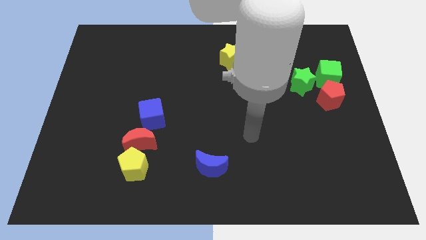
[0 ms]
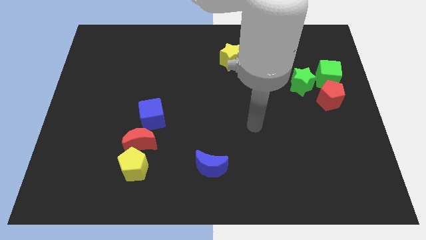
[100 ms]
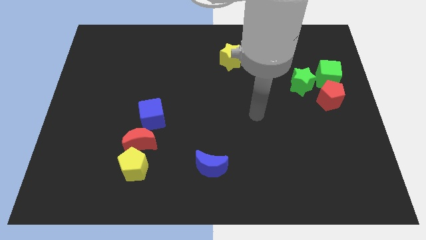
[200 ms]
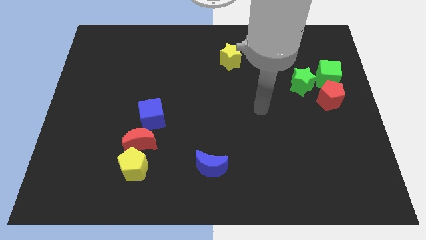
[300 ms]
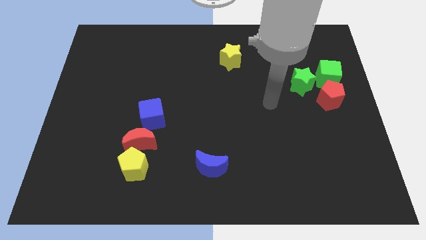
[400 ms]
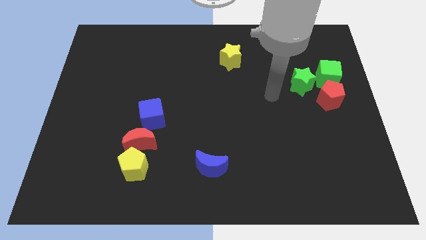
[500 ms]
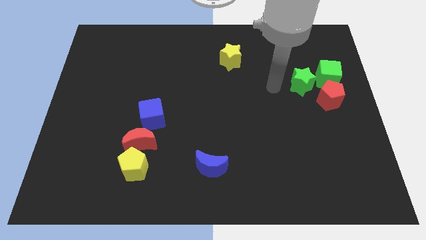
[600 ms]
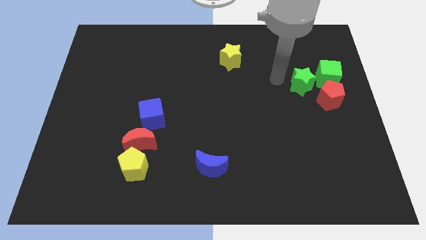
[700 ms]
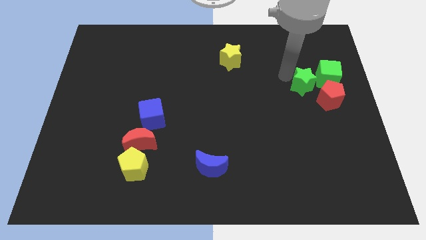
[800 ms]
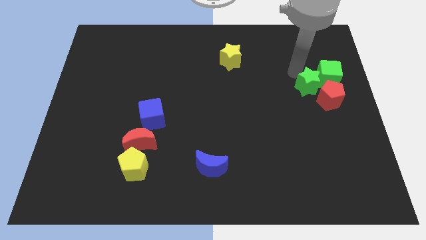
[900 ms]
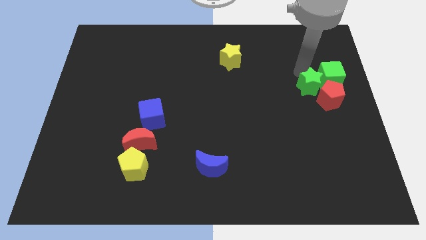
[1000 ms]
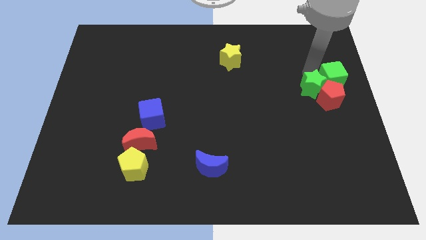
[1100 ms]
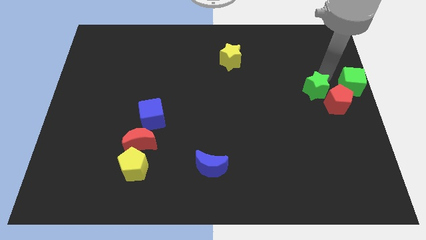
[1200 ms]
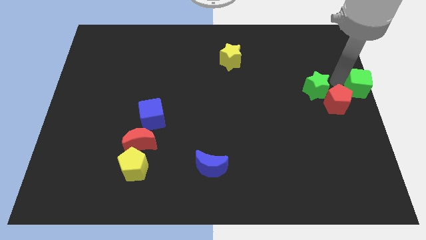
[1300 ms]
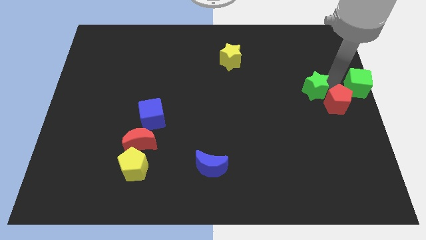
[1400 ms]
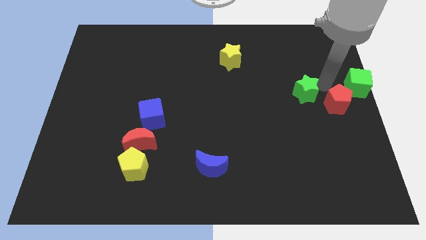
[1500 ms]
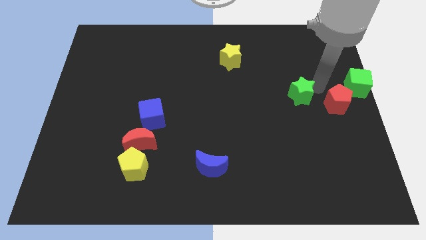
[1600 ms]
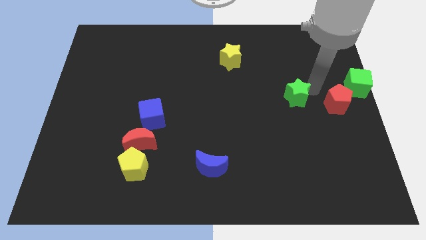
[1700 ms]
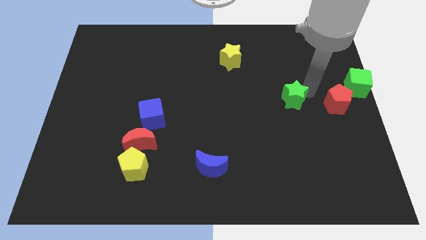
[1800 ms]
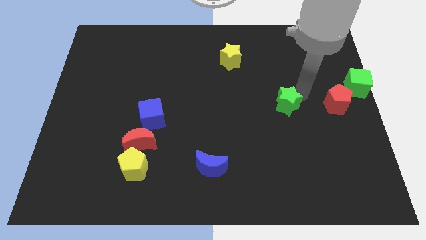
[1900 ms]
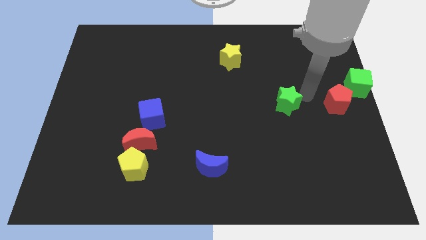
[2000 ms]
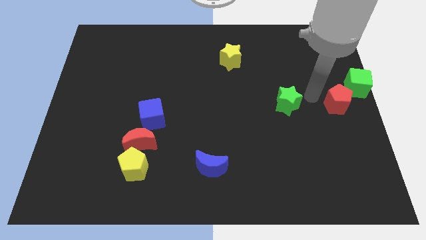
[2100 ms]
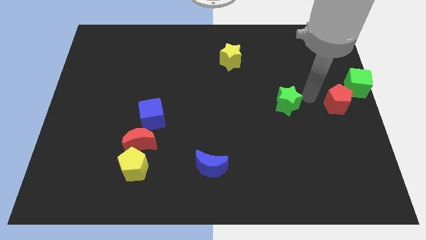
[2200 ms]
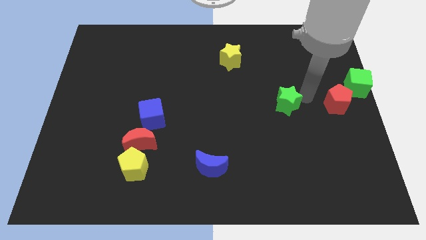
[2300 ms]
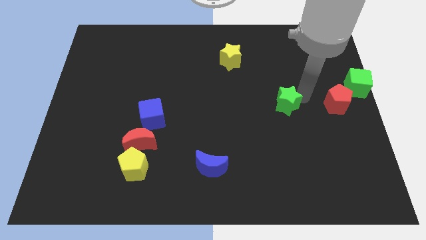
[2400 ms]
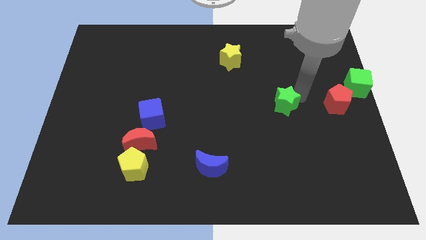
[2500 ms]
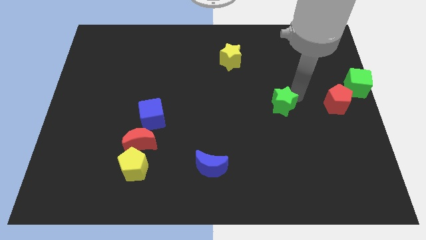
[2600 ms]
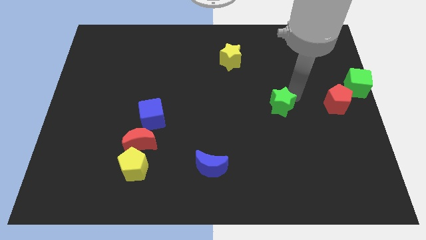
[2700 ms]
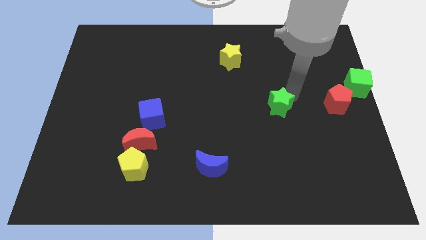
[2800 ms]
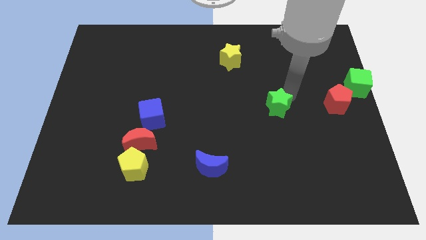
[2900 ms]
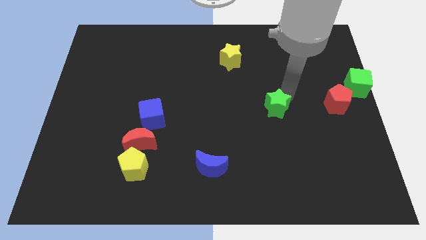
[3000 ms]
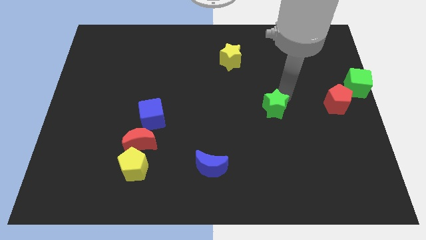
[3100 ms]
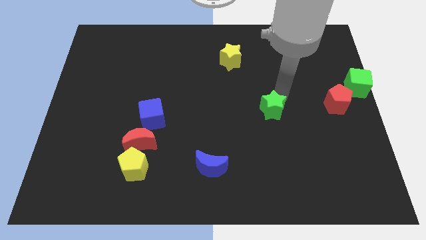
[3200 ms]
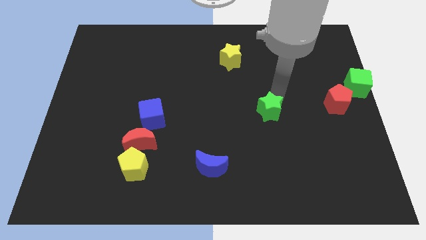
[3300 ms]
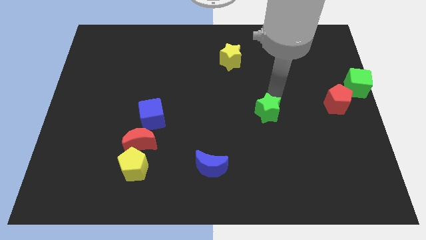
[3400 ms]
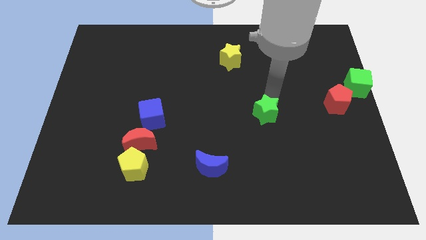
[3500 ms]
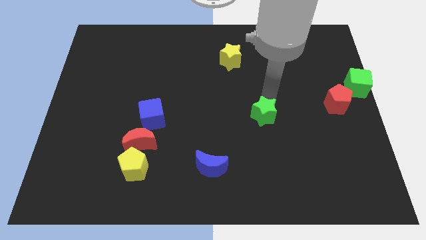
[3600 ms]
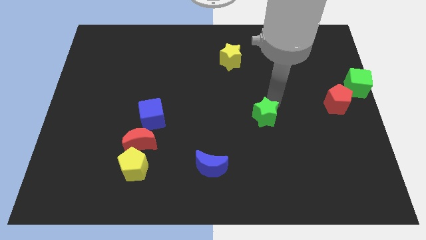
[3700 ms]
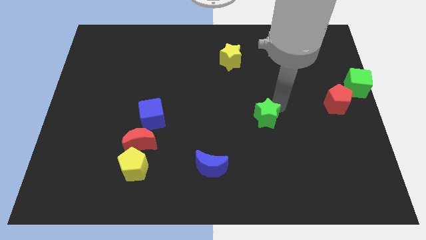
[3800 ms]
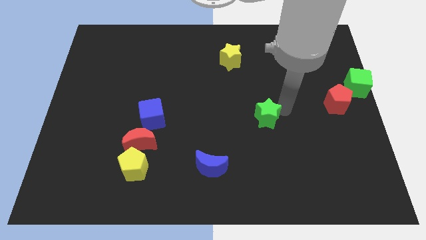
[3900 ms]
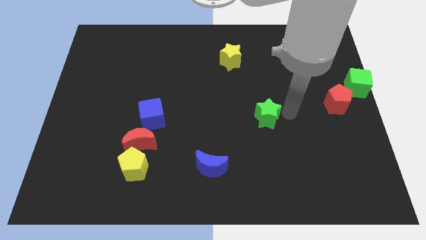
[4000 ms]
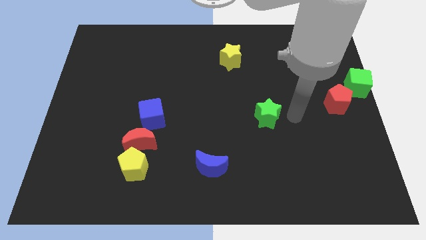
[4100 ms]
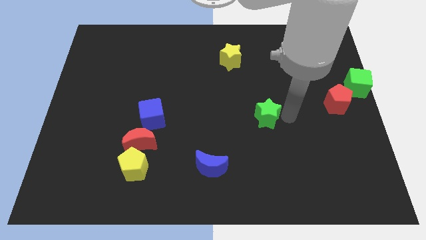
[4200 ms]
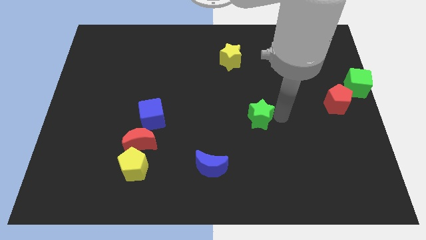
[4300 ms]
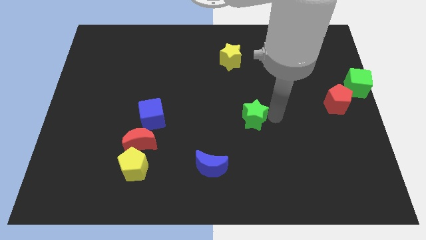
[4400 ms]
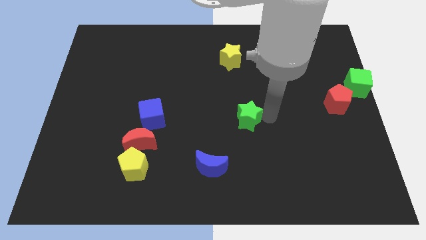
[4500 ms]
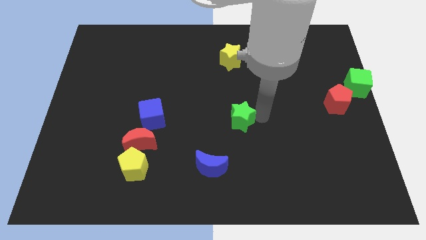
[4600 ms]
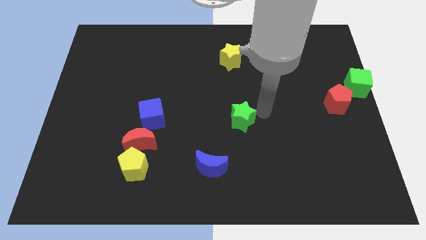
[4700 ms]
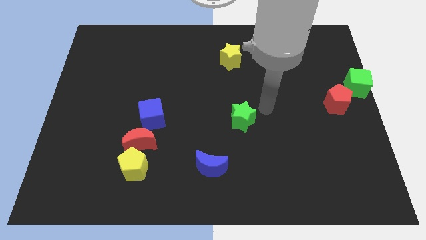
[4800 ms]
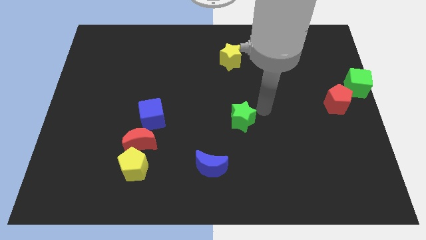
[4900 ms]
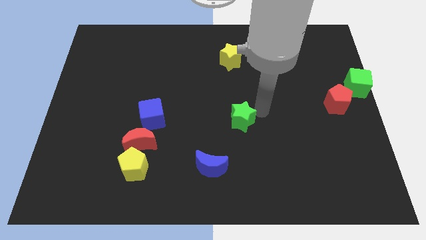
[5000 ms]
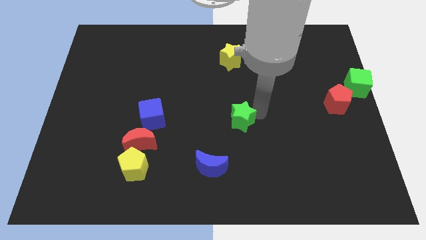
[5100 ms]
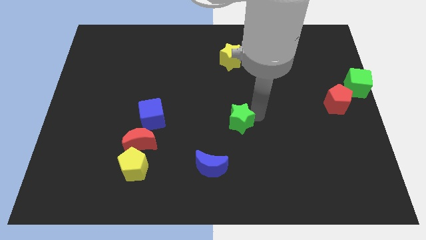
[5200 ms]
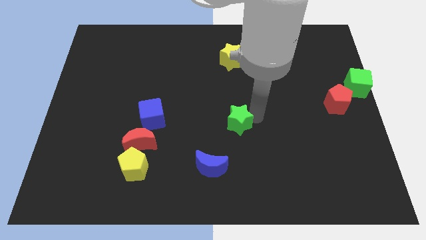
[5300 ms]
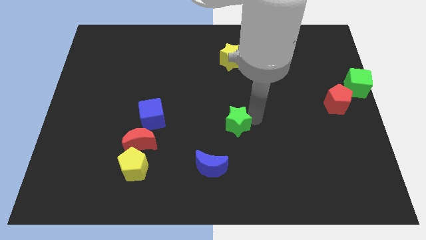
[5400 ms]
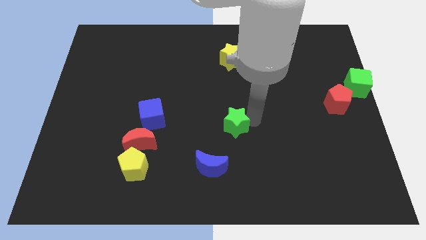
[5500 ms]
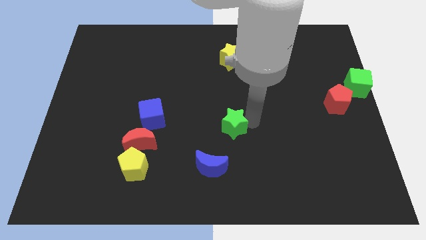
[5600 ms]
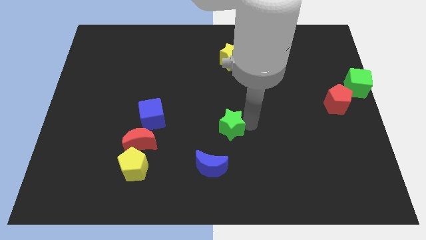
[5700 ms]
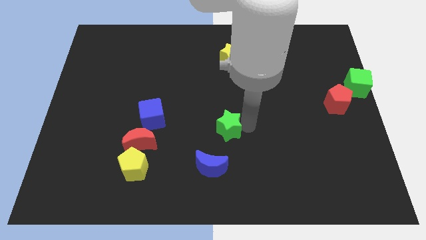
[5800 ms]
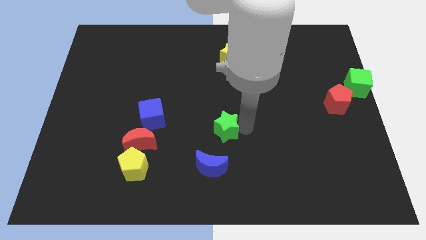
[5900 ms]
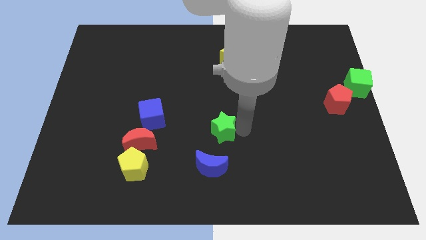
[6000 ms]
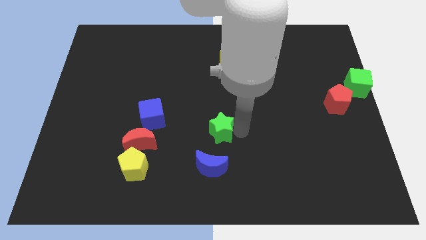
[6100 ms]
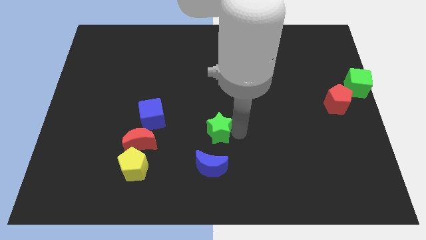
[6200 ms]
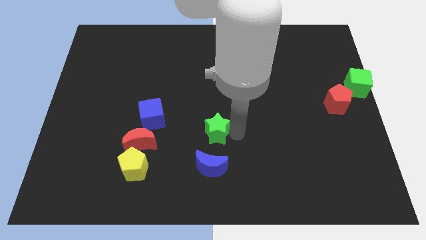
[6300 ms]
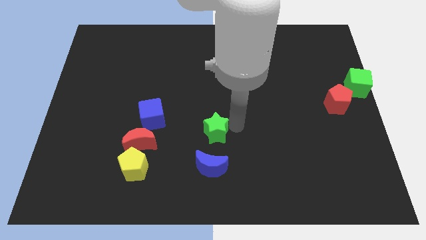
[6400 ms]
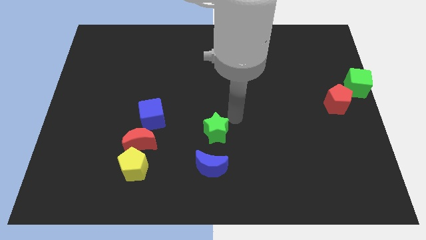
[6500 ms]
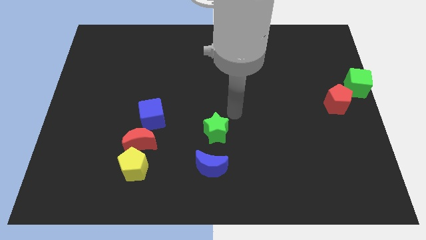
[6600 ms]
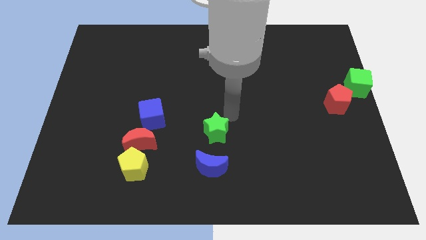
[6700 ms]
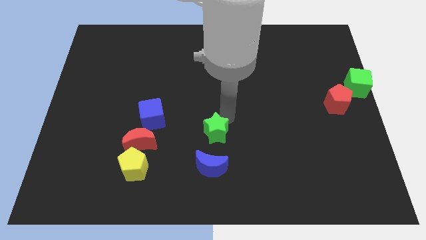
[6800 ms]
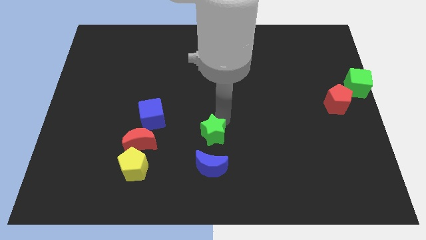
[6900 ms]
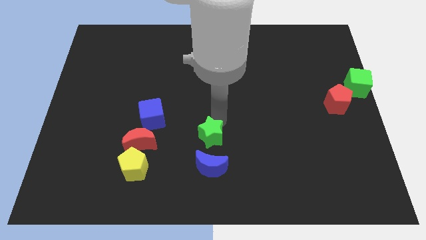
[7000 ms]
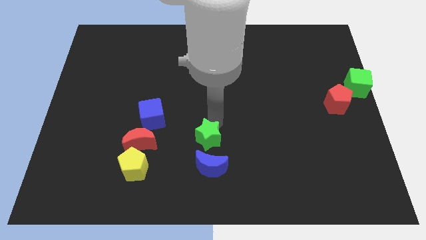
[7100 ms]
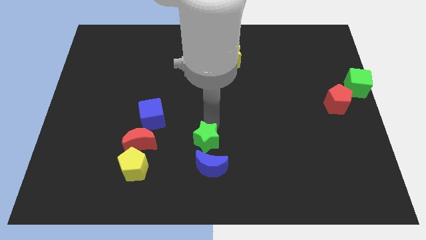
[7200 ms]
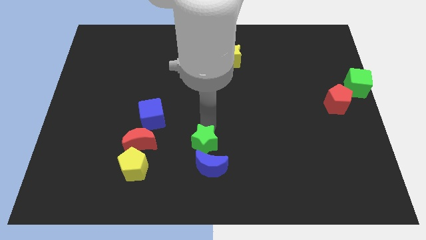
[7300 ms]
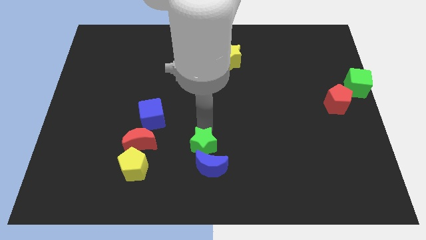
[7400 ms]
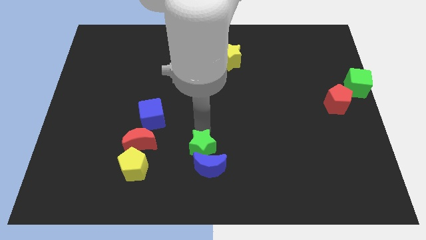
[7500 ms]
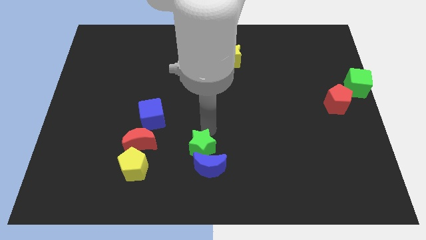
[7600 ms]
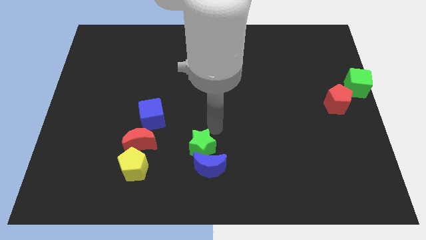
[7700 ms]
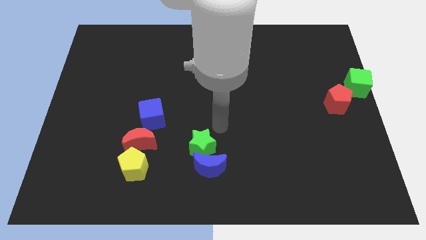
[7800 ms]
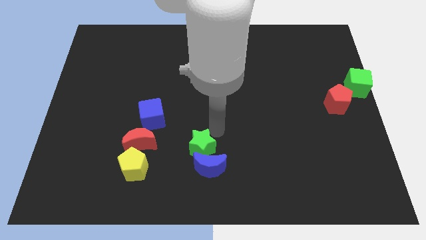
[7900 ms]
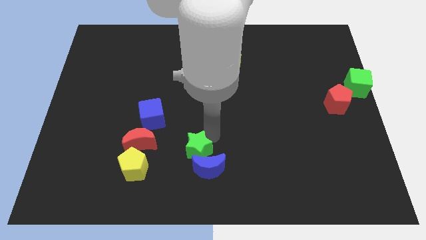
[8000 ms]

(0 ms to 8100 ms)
slide the green star to the right side of the yellow pentagon
